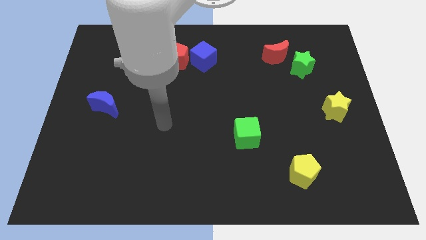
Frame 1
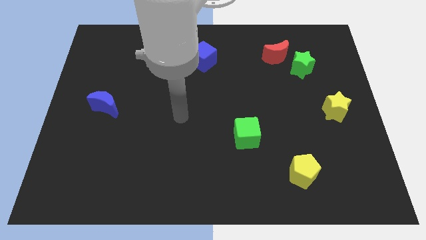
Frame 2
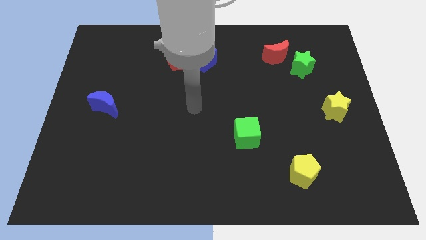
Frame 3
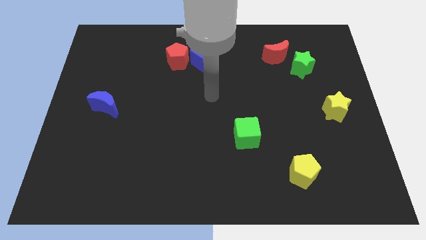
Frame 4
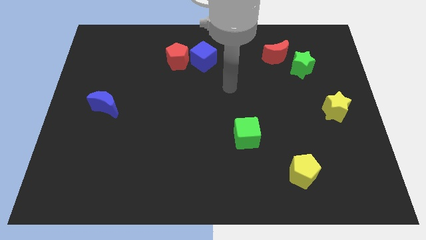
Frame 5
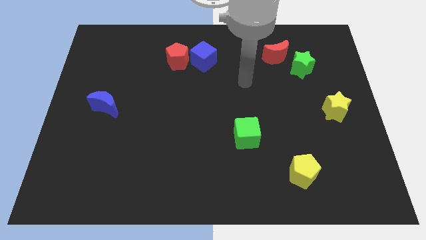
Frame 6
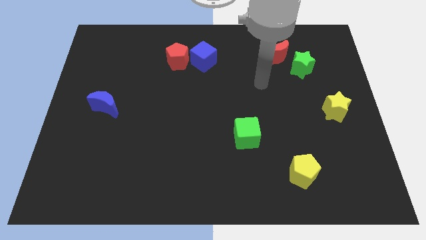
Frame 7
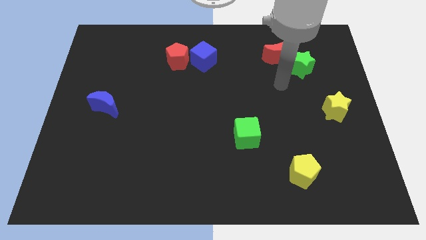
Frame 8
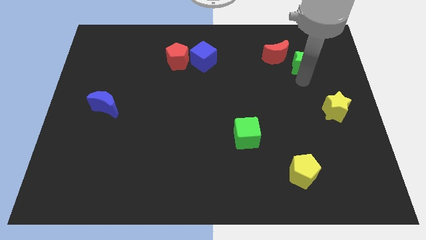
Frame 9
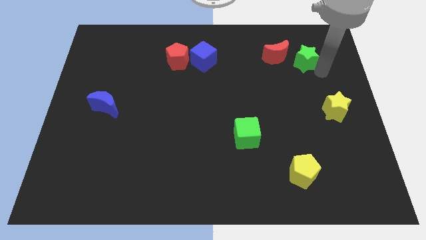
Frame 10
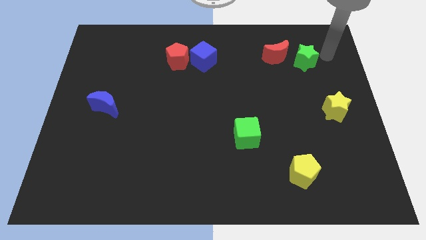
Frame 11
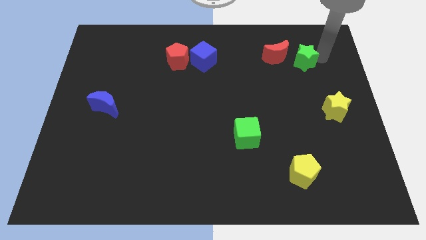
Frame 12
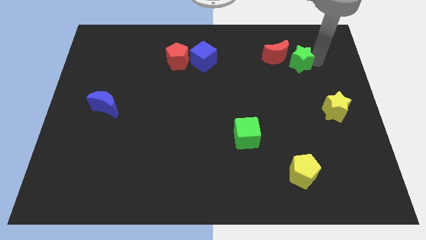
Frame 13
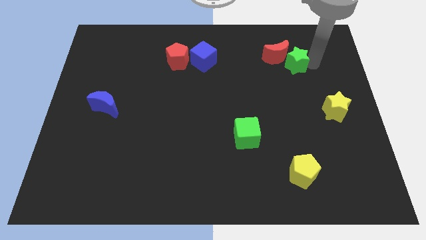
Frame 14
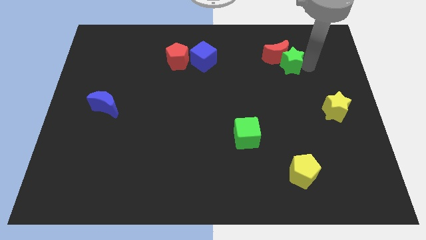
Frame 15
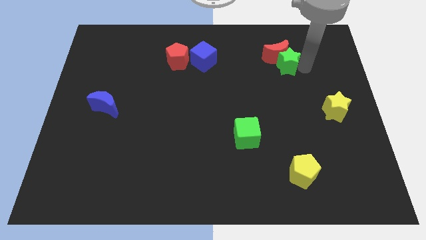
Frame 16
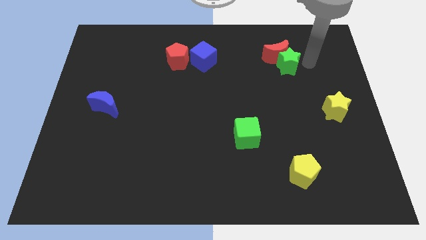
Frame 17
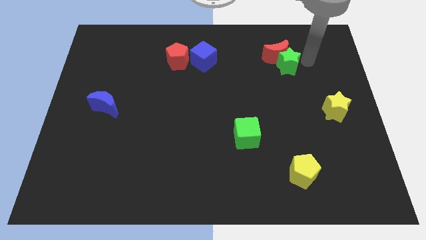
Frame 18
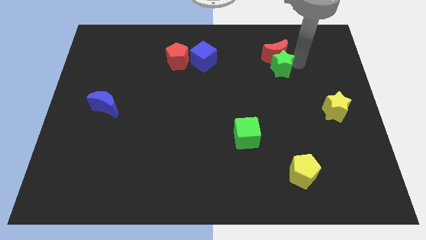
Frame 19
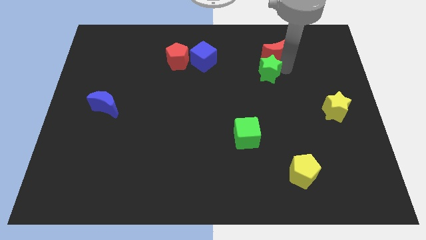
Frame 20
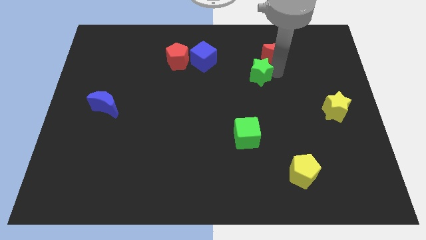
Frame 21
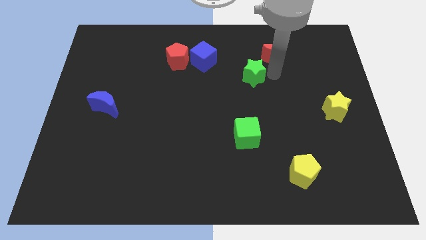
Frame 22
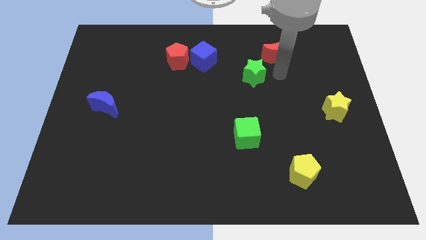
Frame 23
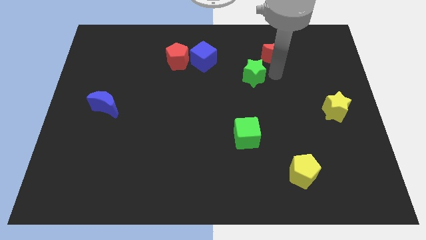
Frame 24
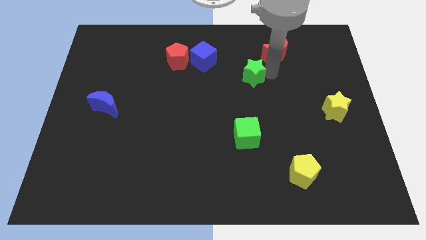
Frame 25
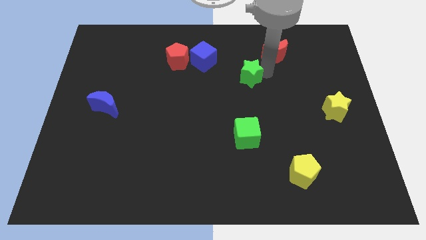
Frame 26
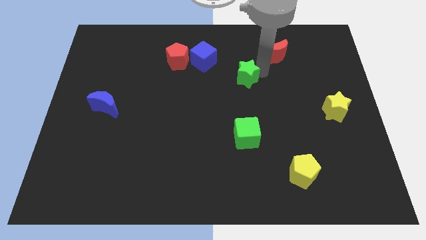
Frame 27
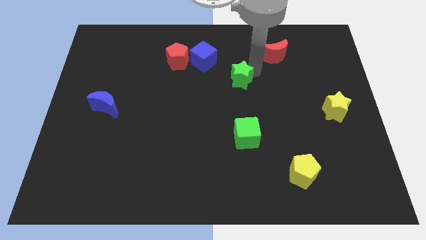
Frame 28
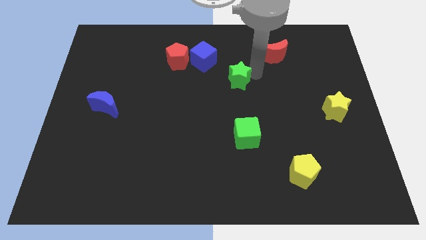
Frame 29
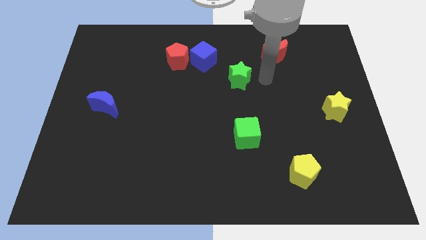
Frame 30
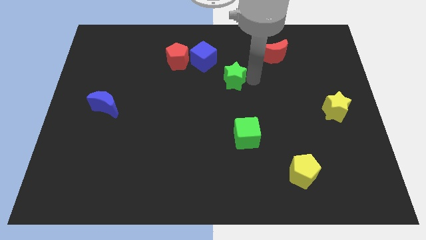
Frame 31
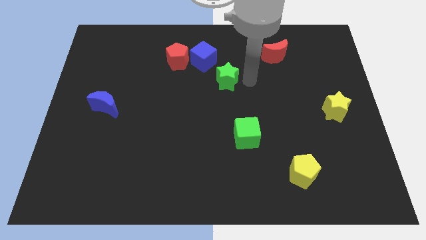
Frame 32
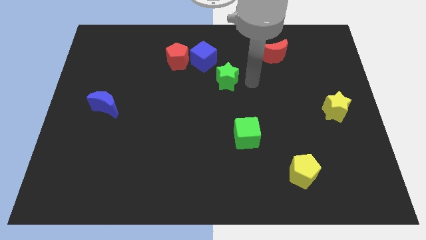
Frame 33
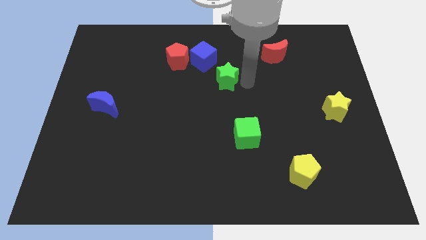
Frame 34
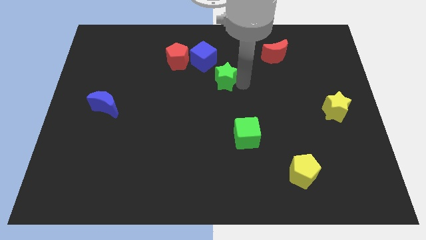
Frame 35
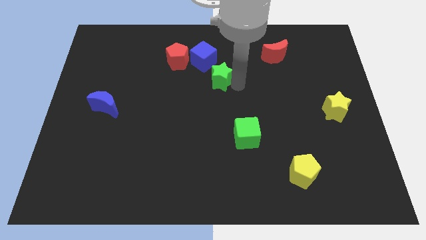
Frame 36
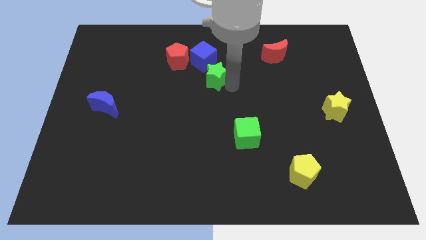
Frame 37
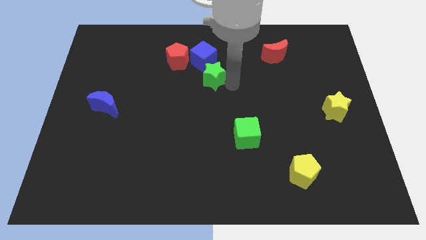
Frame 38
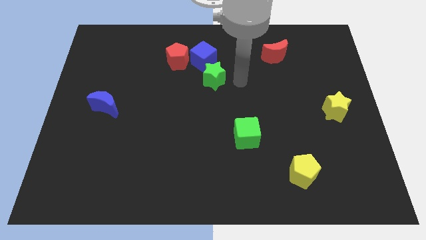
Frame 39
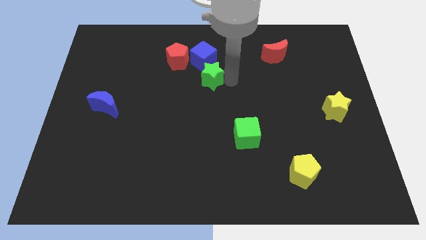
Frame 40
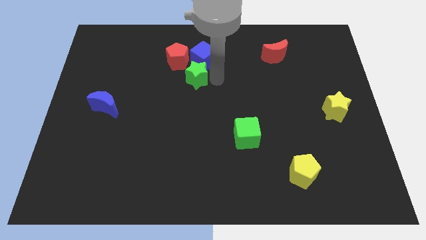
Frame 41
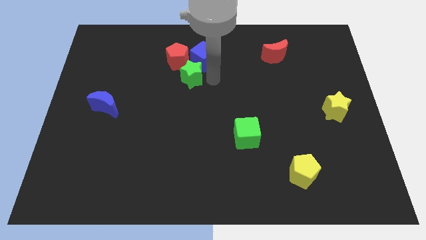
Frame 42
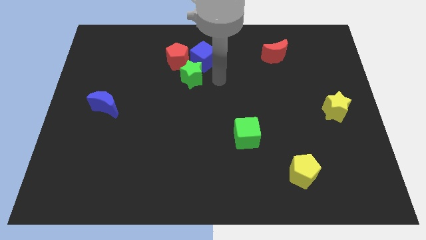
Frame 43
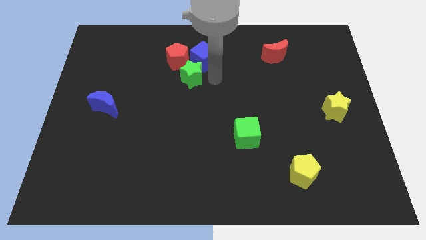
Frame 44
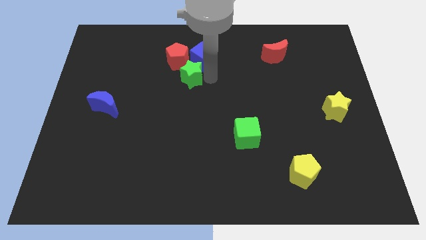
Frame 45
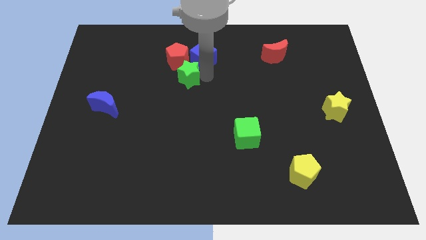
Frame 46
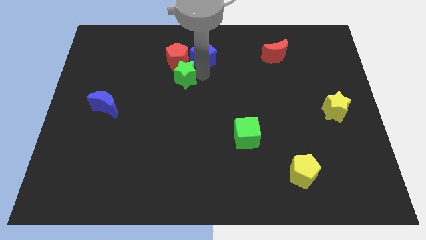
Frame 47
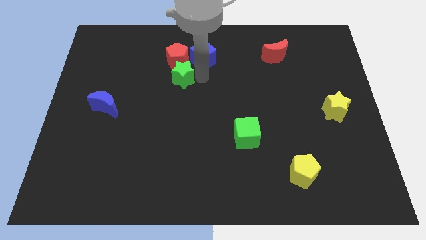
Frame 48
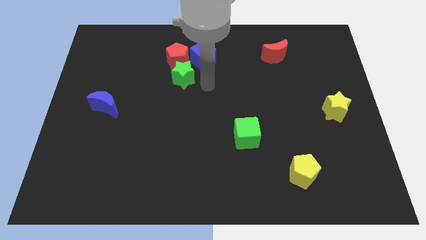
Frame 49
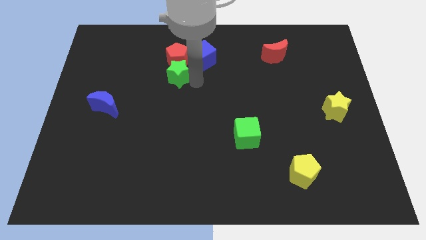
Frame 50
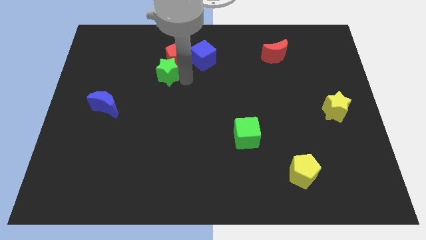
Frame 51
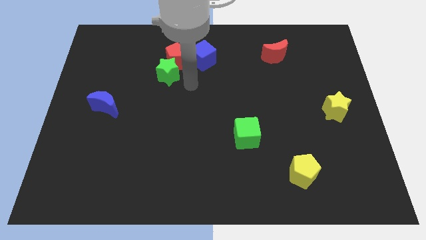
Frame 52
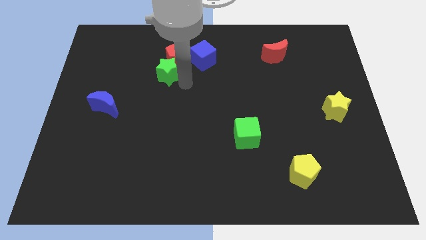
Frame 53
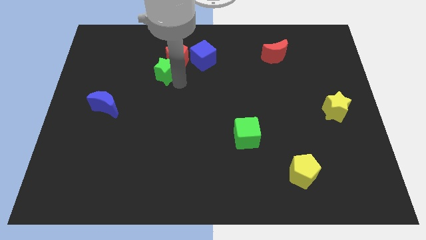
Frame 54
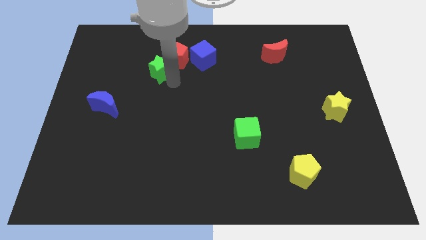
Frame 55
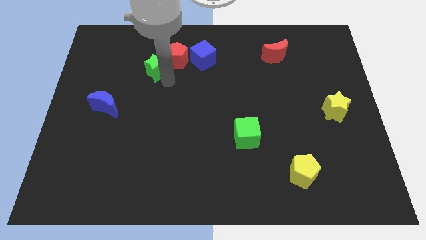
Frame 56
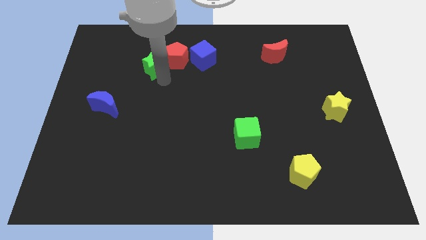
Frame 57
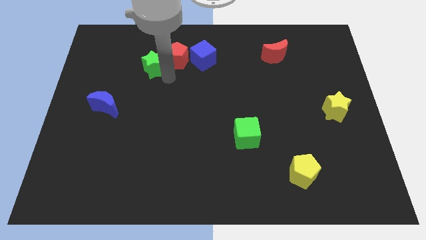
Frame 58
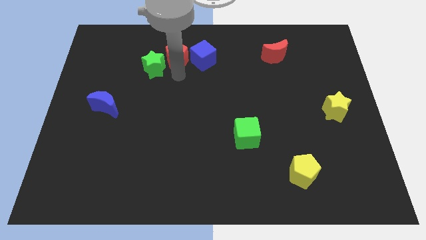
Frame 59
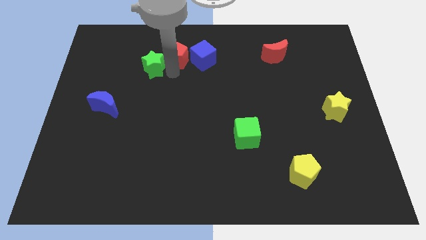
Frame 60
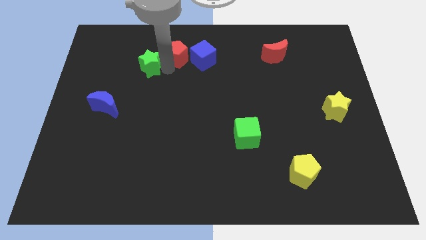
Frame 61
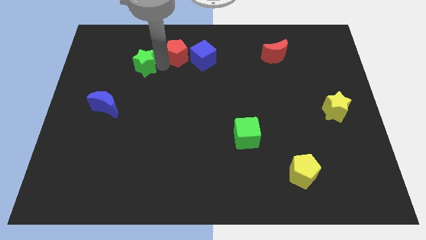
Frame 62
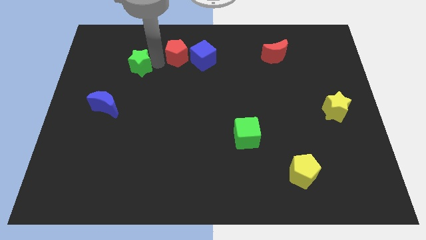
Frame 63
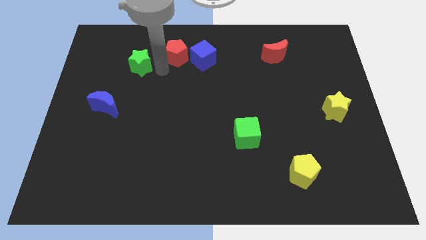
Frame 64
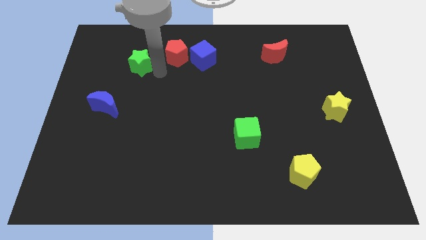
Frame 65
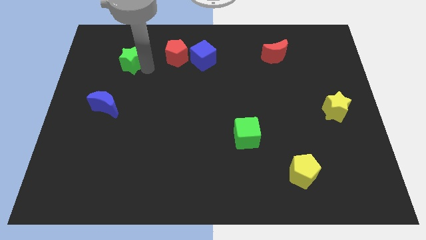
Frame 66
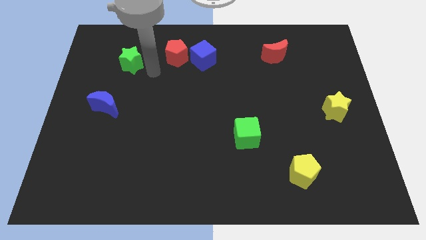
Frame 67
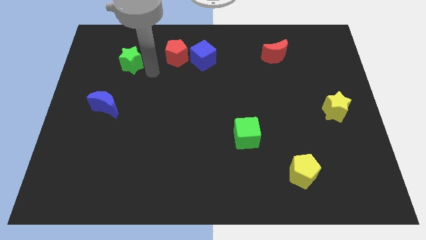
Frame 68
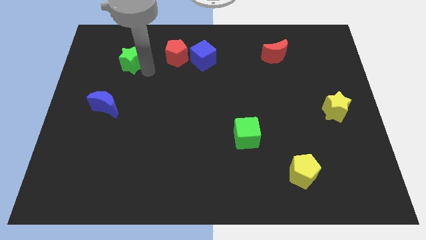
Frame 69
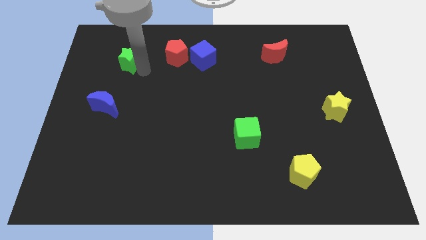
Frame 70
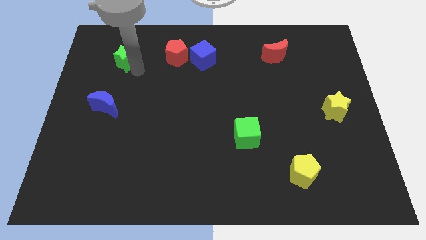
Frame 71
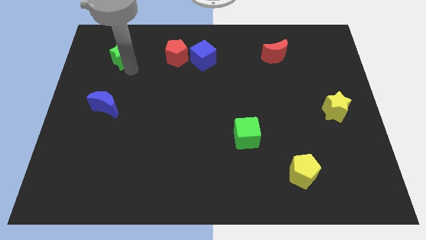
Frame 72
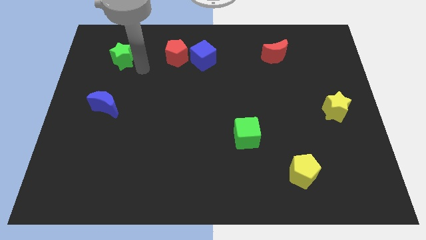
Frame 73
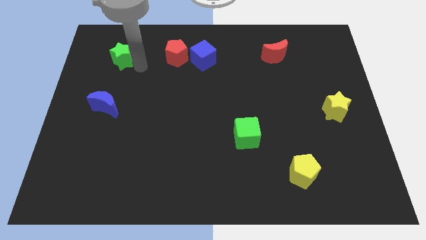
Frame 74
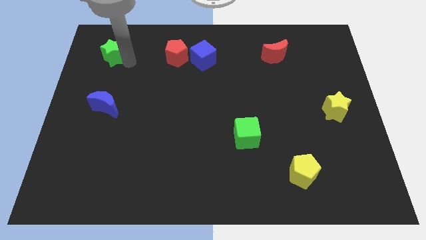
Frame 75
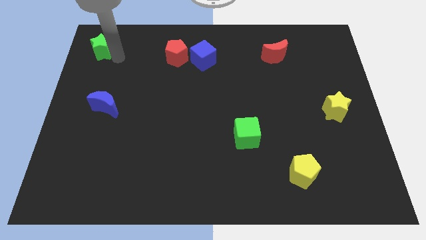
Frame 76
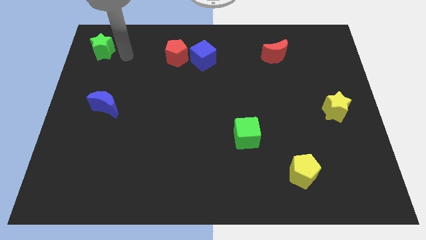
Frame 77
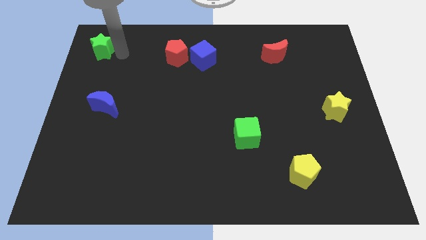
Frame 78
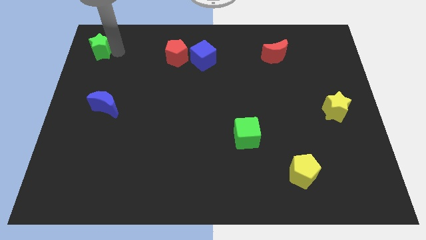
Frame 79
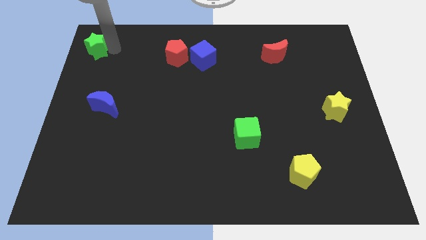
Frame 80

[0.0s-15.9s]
move the green star to the top left corner

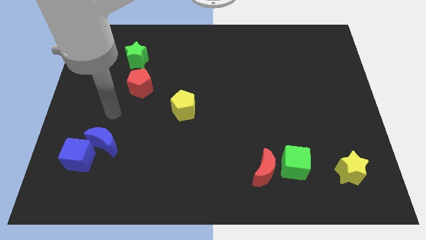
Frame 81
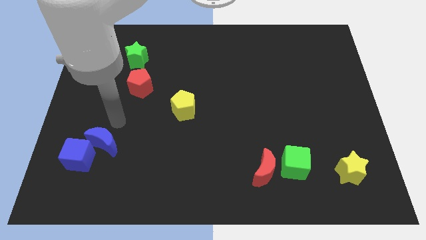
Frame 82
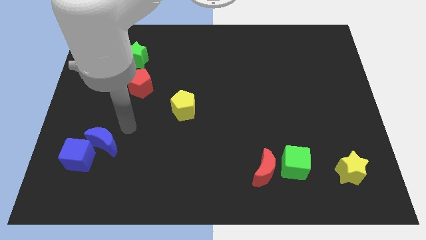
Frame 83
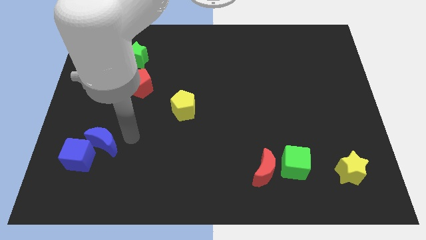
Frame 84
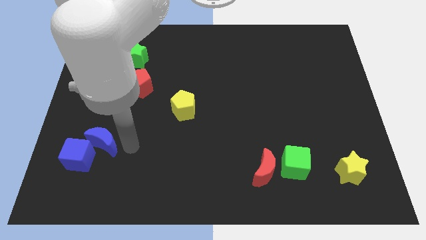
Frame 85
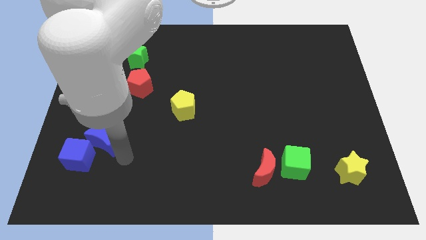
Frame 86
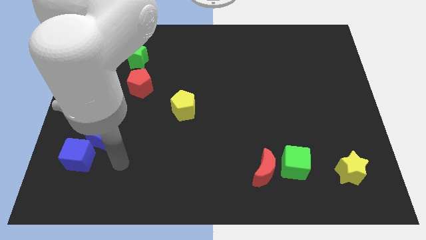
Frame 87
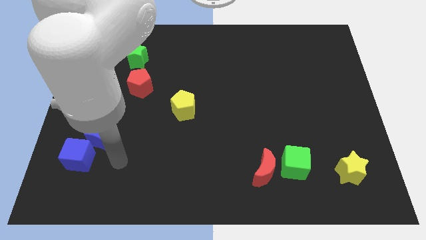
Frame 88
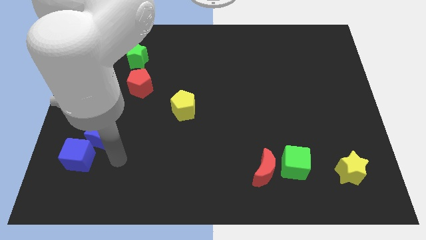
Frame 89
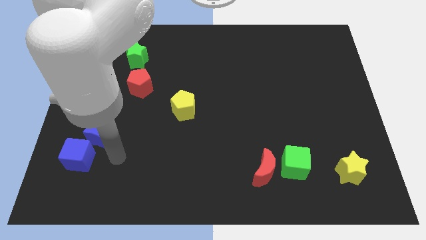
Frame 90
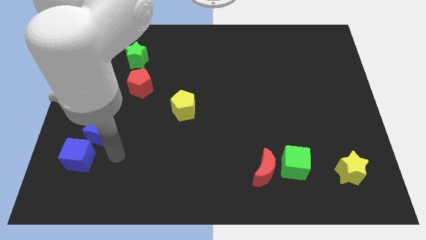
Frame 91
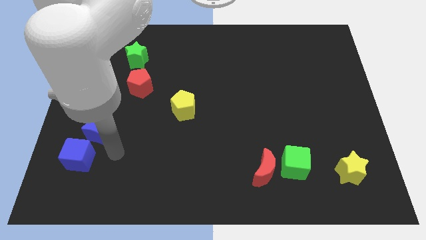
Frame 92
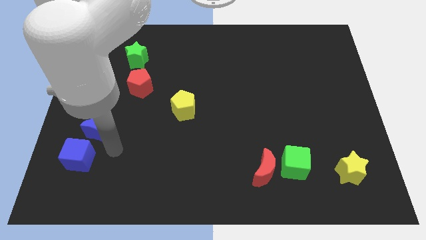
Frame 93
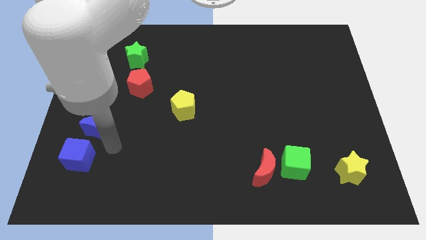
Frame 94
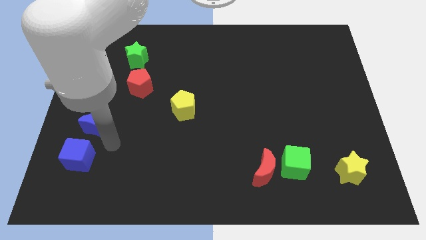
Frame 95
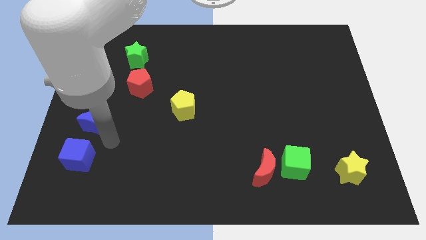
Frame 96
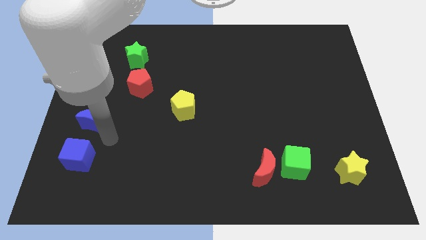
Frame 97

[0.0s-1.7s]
move the blue moon to the left side
